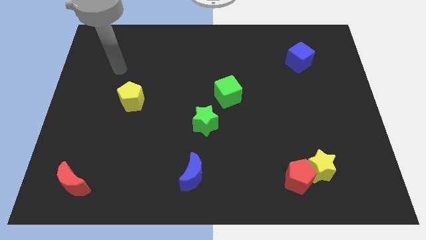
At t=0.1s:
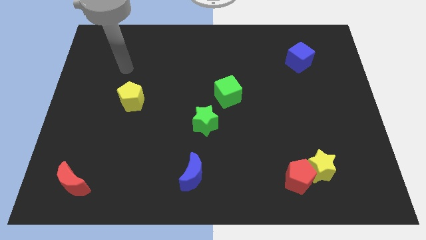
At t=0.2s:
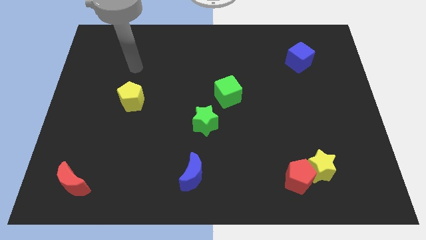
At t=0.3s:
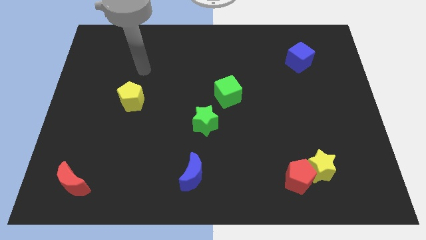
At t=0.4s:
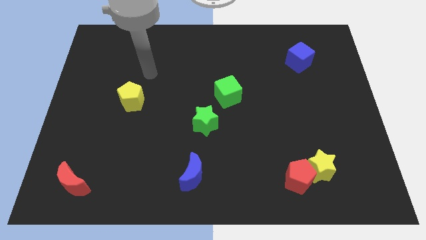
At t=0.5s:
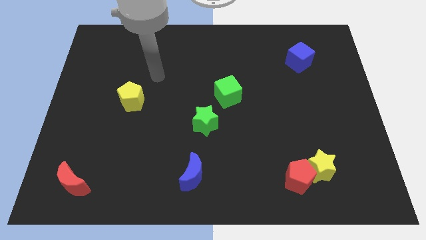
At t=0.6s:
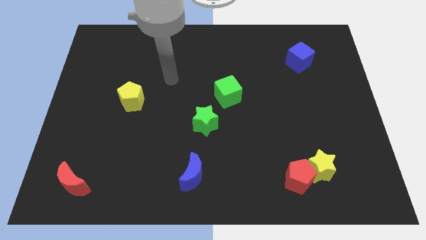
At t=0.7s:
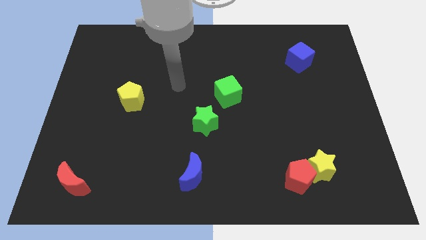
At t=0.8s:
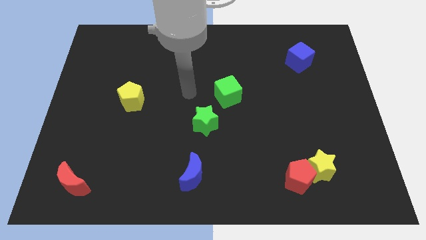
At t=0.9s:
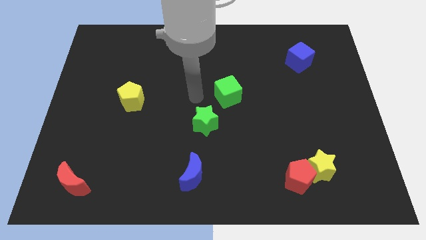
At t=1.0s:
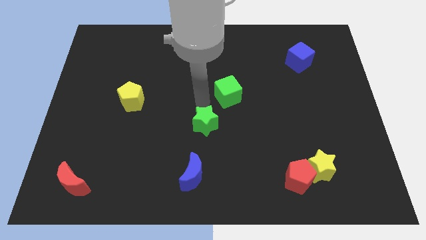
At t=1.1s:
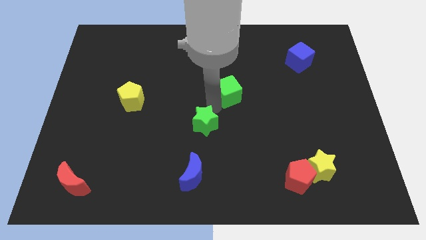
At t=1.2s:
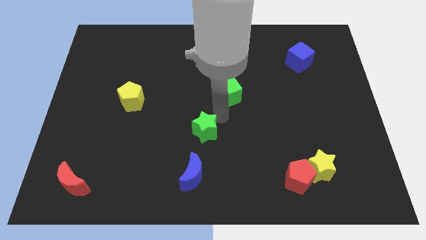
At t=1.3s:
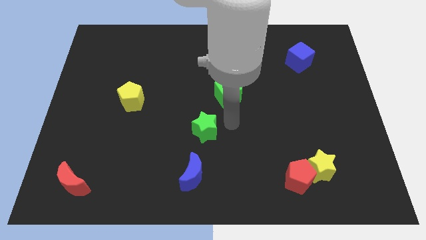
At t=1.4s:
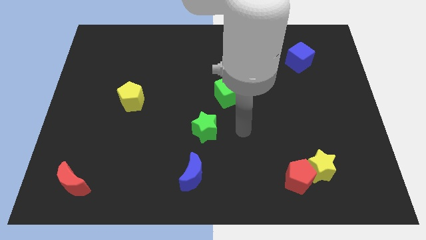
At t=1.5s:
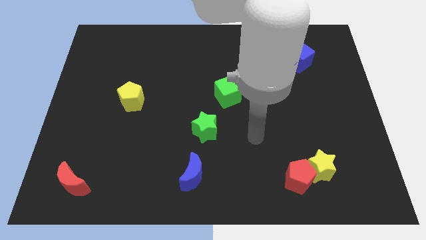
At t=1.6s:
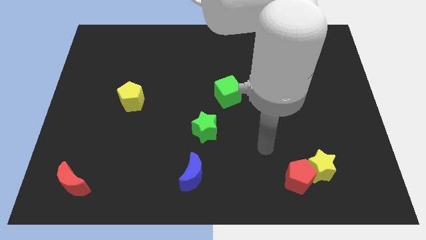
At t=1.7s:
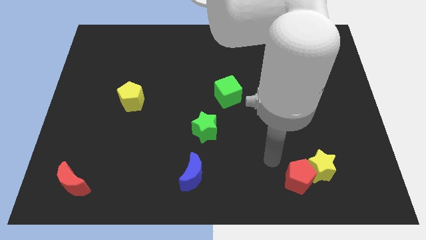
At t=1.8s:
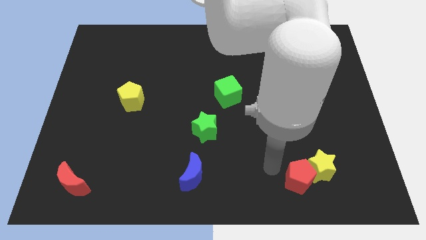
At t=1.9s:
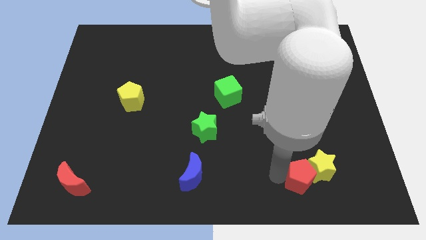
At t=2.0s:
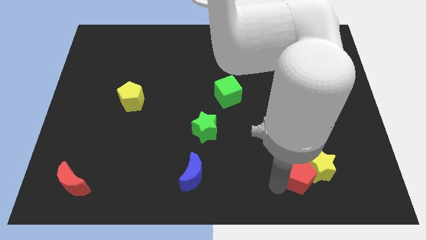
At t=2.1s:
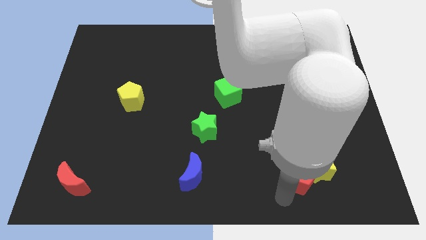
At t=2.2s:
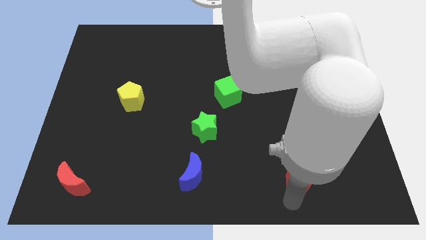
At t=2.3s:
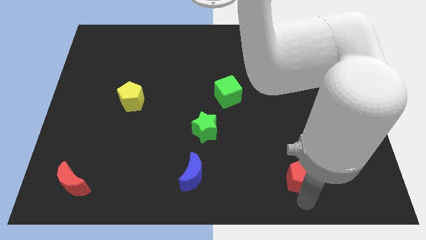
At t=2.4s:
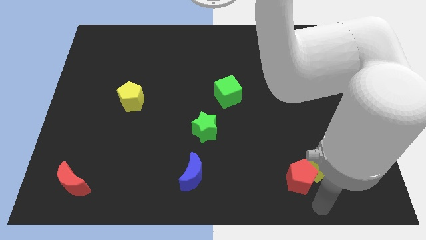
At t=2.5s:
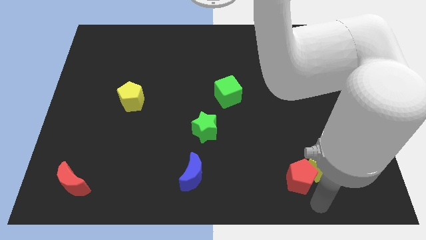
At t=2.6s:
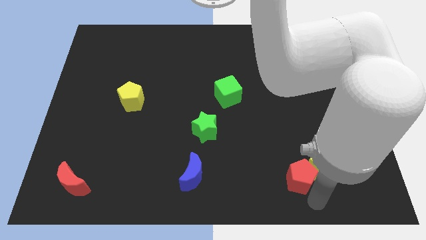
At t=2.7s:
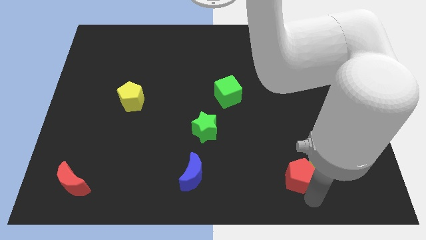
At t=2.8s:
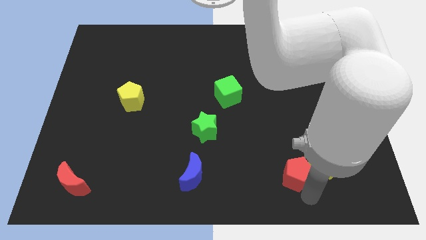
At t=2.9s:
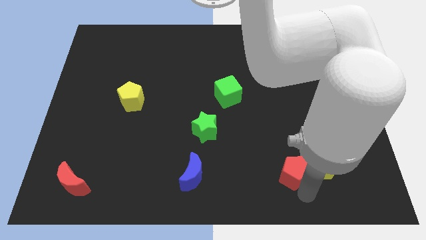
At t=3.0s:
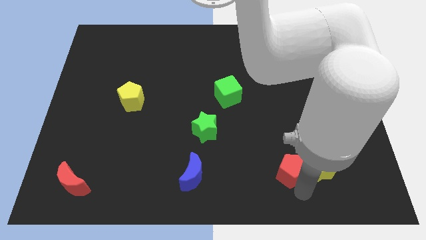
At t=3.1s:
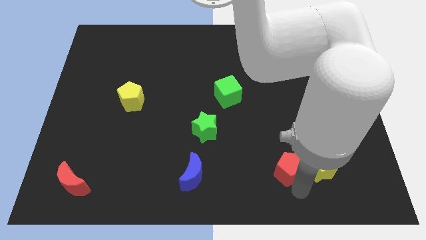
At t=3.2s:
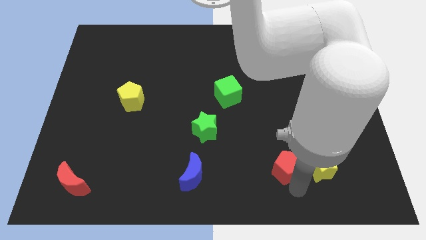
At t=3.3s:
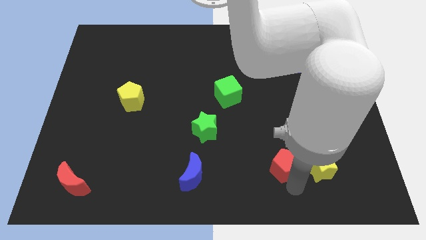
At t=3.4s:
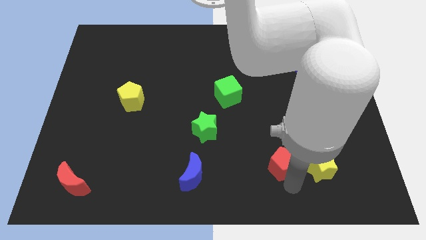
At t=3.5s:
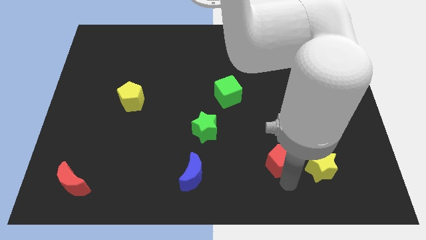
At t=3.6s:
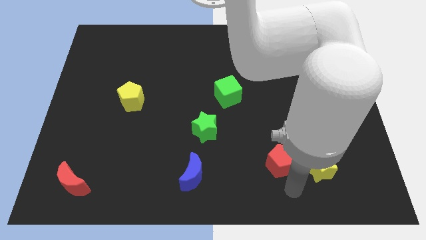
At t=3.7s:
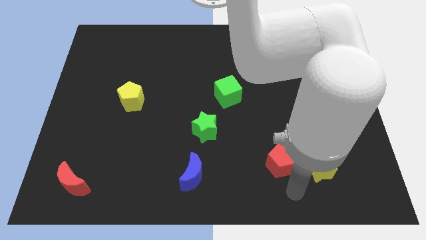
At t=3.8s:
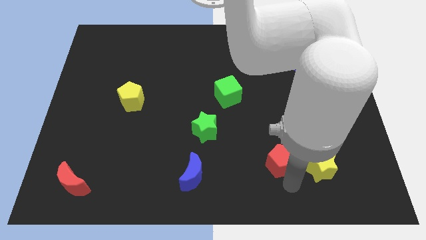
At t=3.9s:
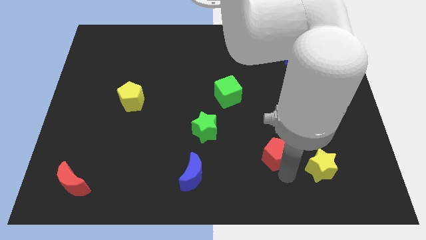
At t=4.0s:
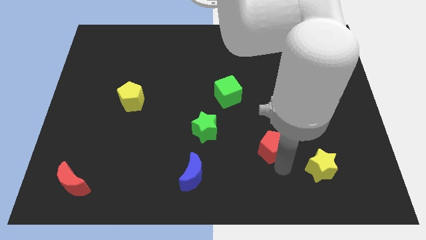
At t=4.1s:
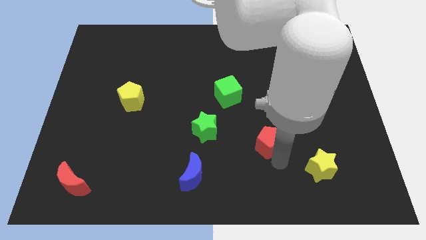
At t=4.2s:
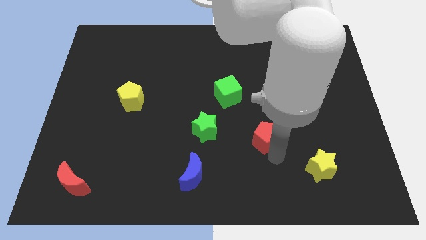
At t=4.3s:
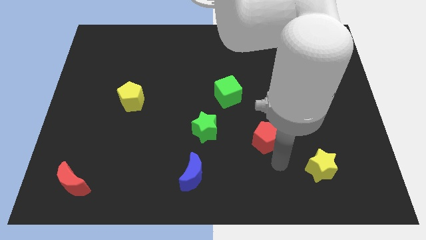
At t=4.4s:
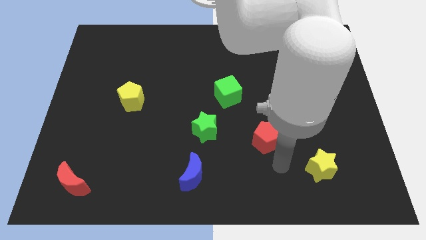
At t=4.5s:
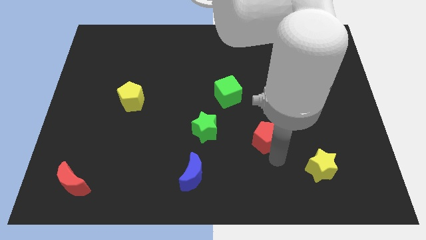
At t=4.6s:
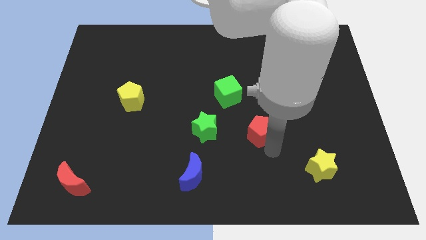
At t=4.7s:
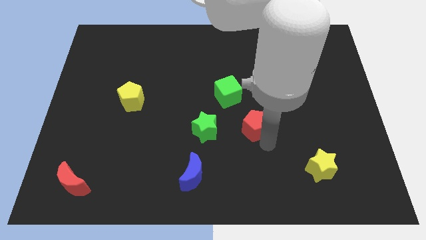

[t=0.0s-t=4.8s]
move the red pentagon to the bottom right side of the green cube

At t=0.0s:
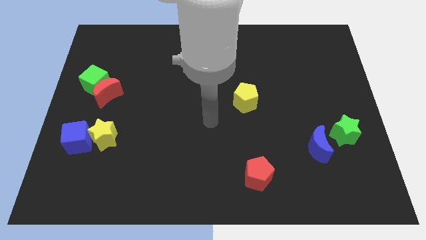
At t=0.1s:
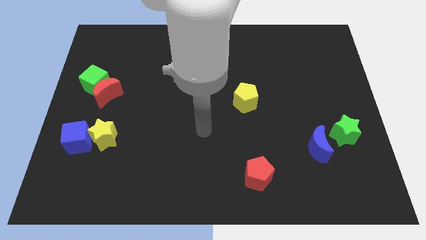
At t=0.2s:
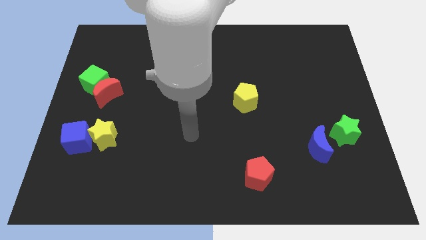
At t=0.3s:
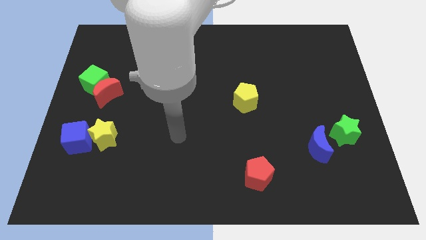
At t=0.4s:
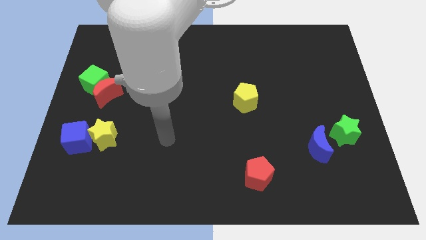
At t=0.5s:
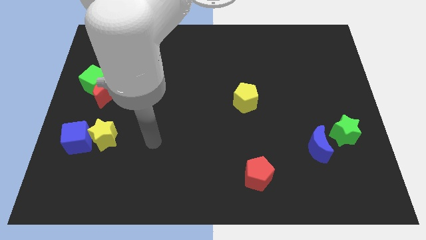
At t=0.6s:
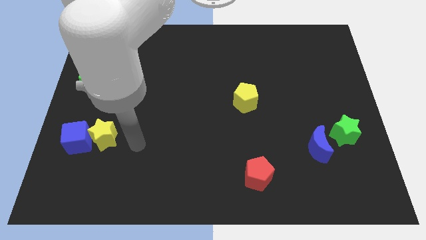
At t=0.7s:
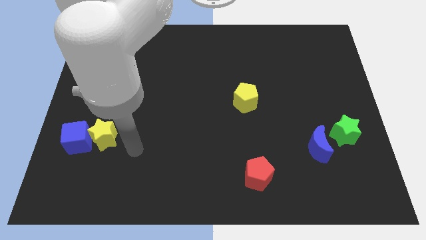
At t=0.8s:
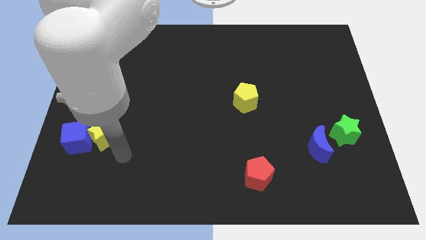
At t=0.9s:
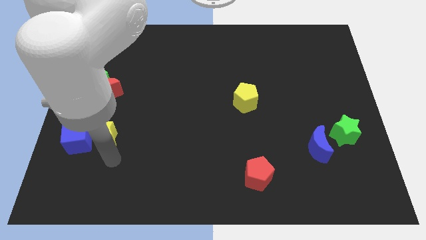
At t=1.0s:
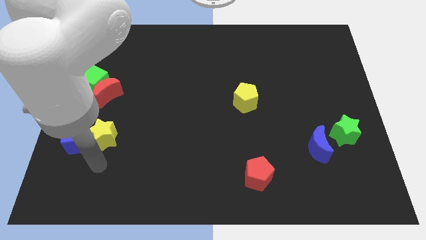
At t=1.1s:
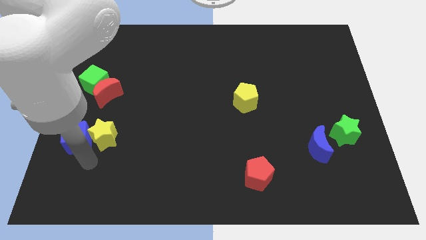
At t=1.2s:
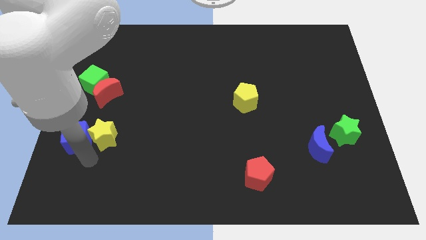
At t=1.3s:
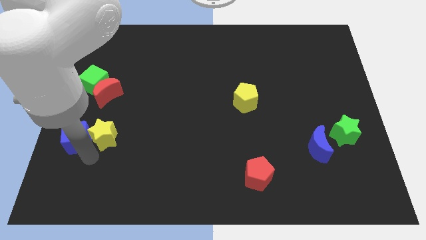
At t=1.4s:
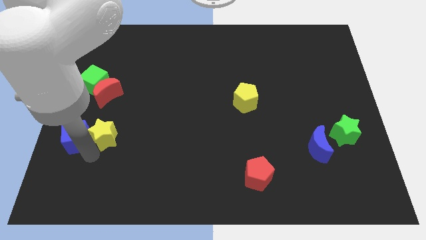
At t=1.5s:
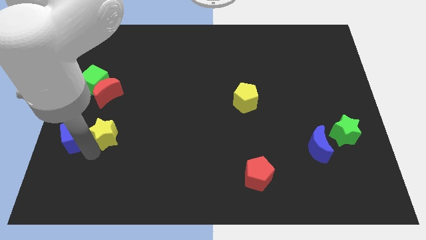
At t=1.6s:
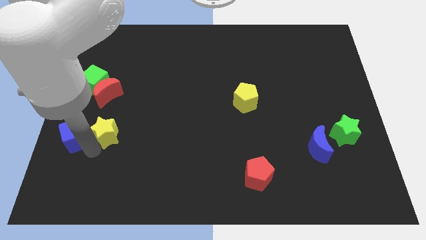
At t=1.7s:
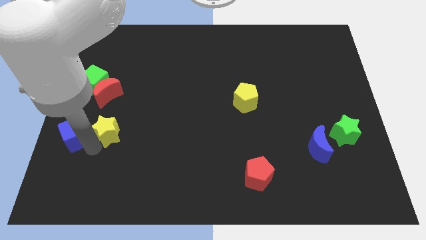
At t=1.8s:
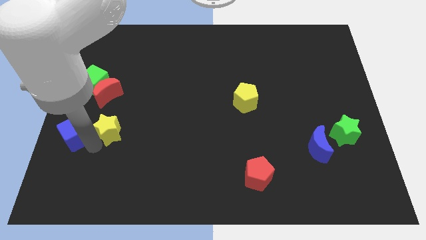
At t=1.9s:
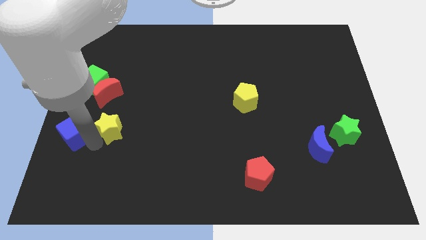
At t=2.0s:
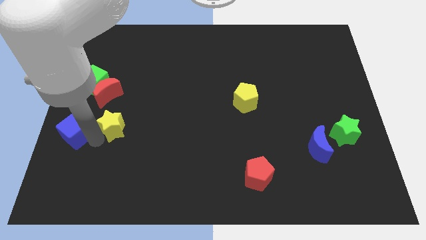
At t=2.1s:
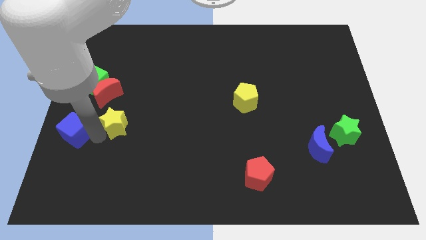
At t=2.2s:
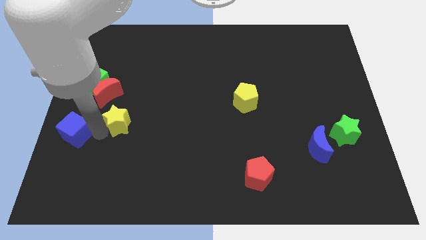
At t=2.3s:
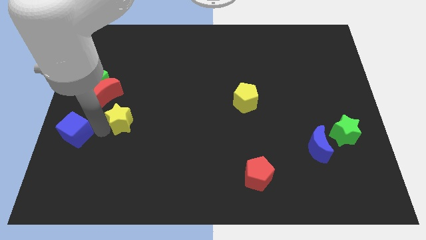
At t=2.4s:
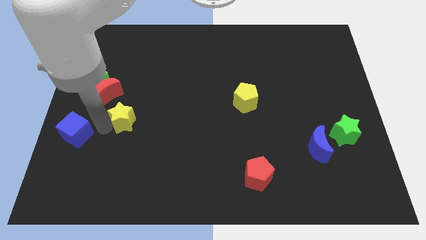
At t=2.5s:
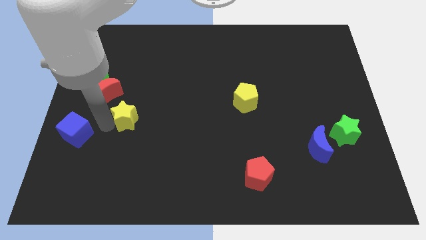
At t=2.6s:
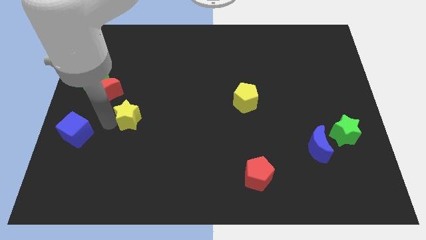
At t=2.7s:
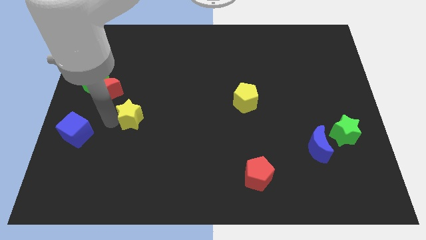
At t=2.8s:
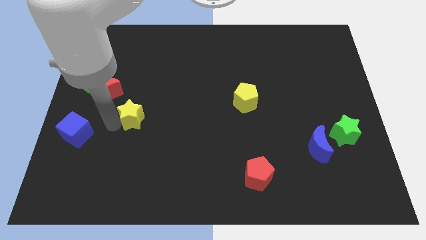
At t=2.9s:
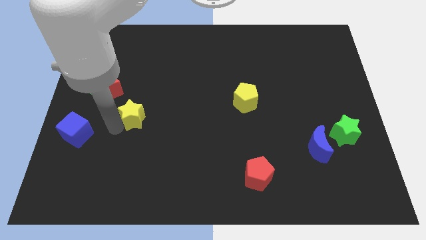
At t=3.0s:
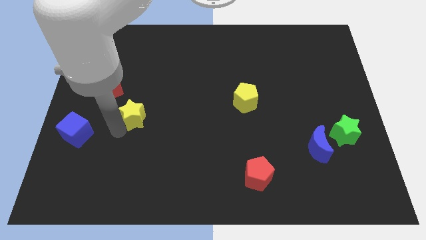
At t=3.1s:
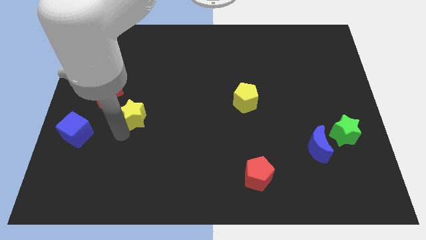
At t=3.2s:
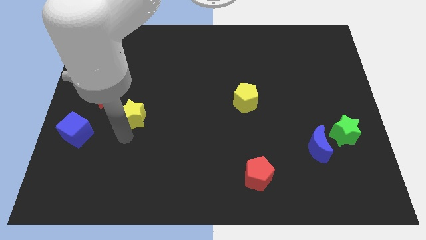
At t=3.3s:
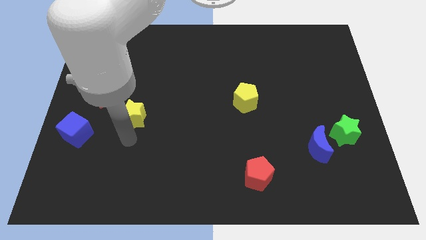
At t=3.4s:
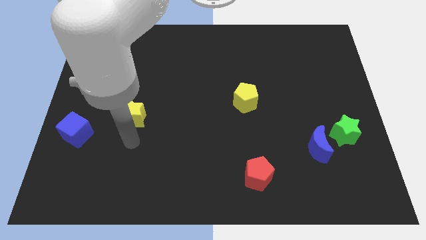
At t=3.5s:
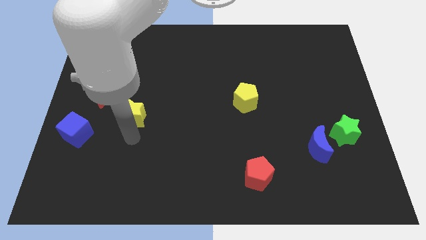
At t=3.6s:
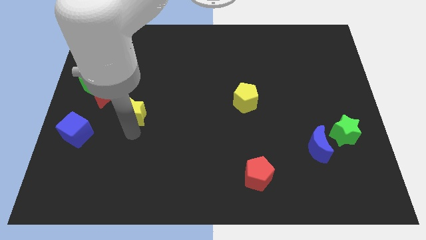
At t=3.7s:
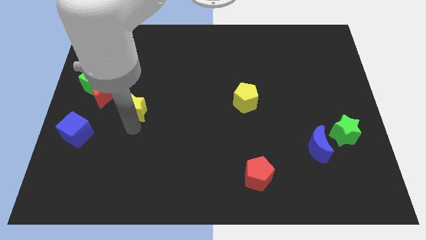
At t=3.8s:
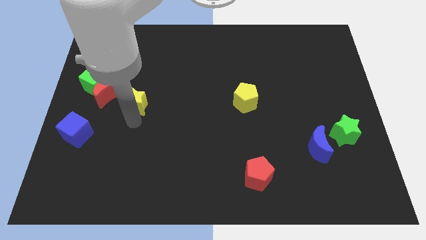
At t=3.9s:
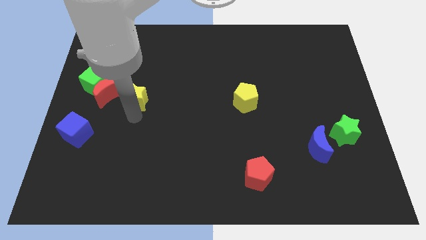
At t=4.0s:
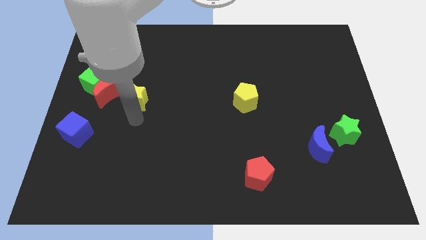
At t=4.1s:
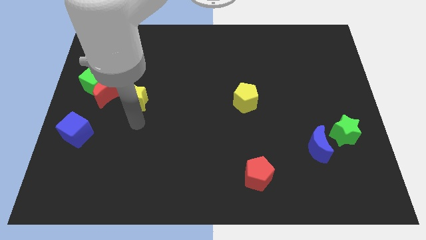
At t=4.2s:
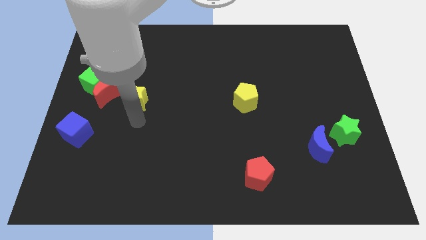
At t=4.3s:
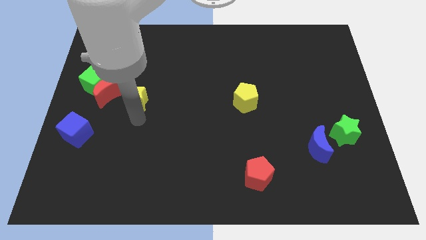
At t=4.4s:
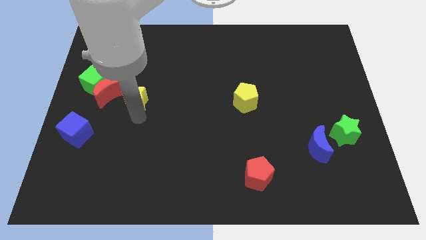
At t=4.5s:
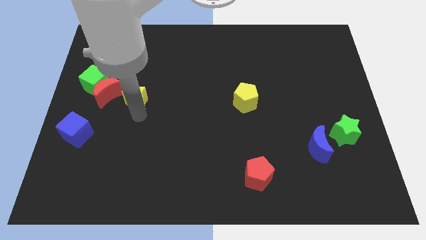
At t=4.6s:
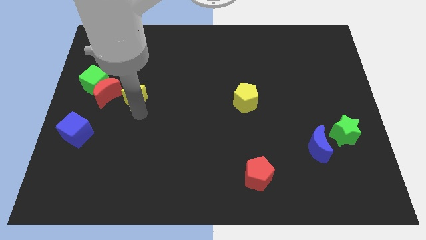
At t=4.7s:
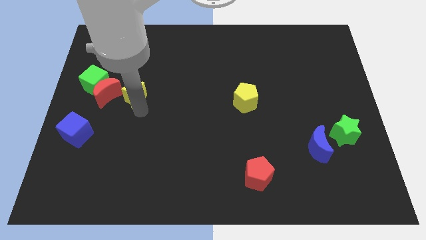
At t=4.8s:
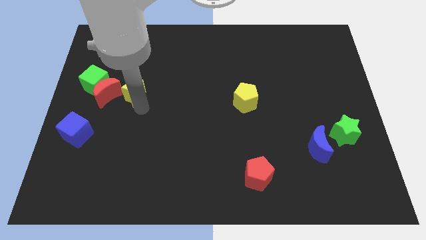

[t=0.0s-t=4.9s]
move the yellow star diagonally up and to the right of the red moon
